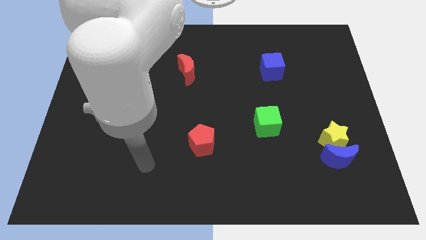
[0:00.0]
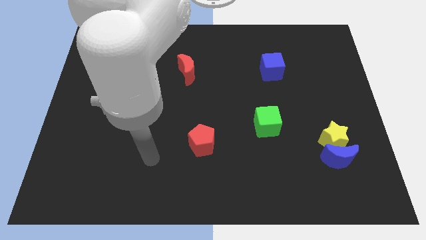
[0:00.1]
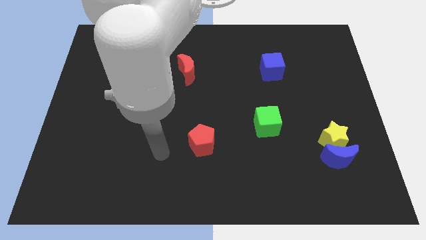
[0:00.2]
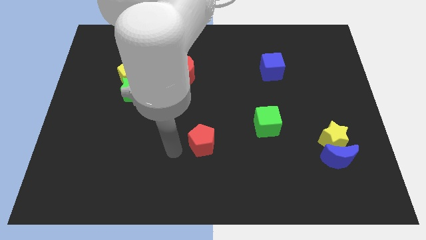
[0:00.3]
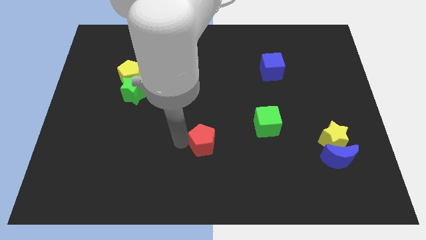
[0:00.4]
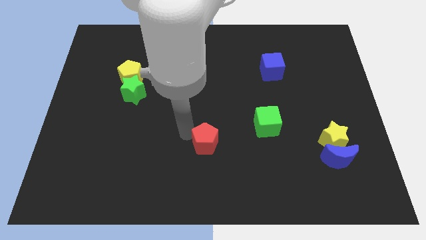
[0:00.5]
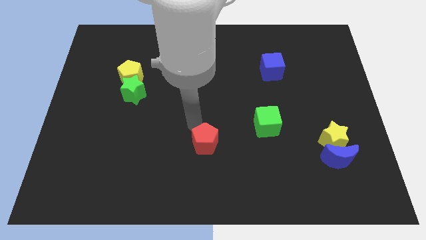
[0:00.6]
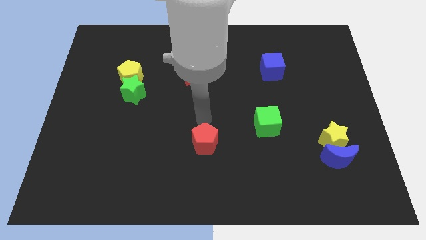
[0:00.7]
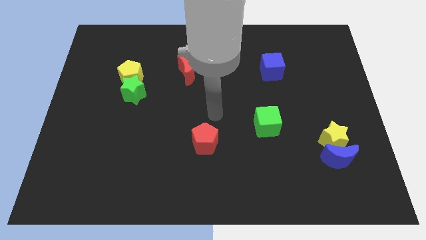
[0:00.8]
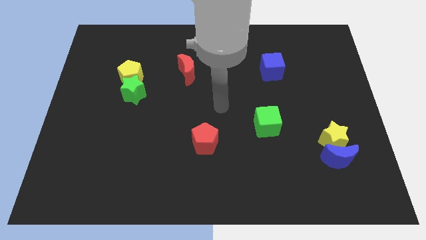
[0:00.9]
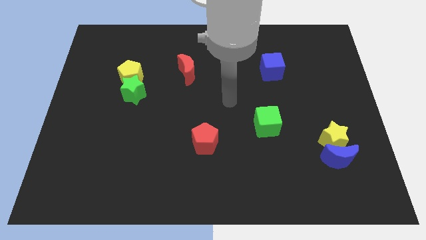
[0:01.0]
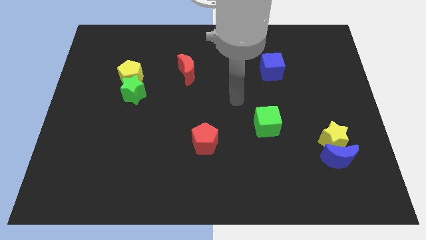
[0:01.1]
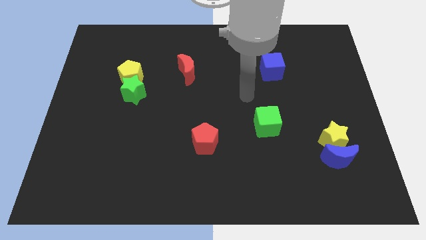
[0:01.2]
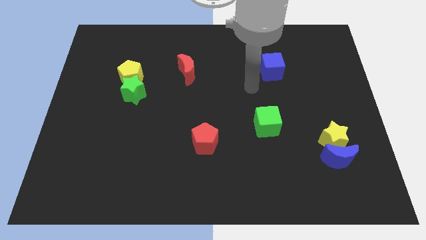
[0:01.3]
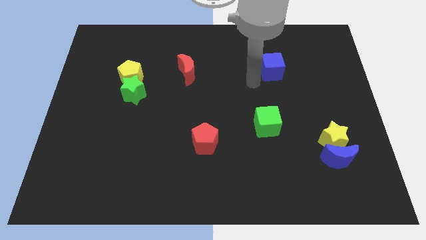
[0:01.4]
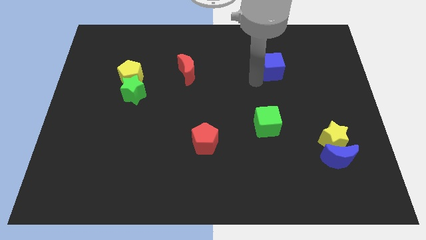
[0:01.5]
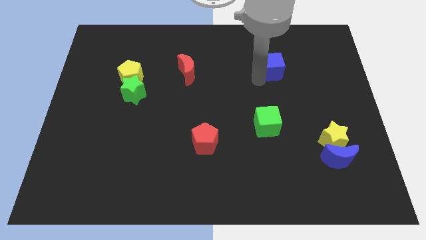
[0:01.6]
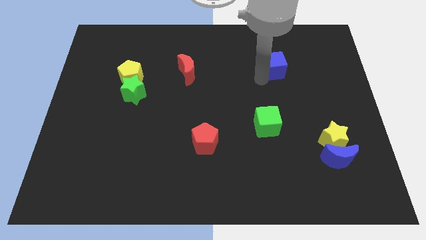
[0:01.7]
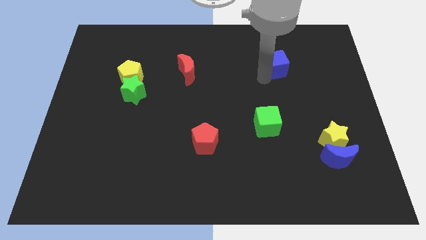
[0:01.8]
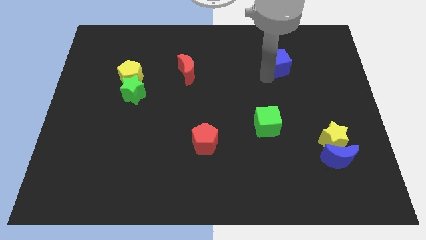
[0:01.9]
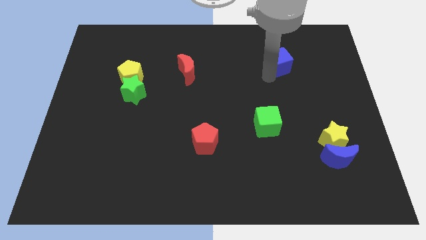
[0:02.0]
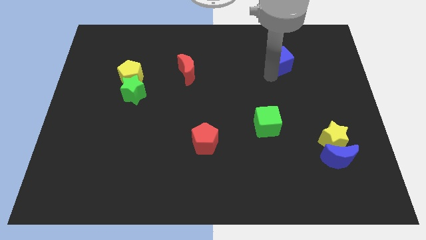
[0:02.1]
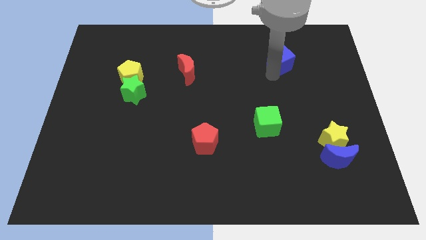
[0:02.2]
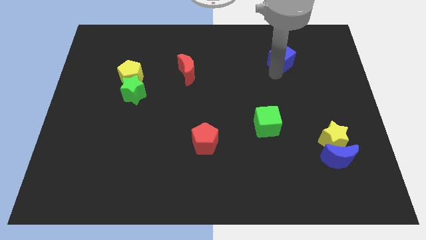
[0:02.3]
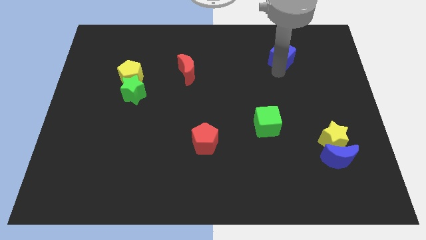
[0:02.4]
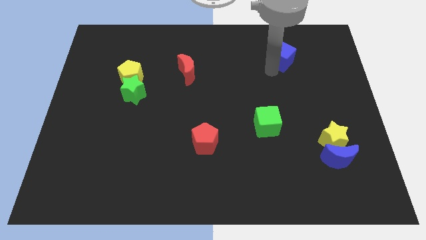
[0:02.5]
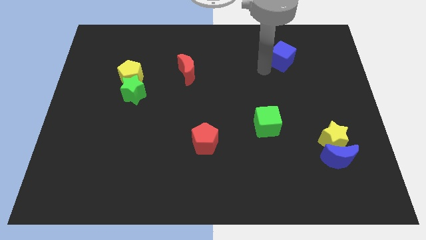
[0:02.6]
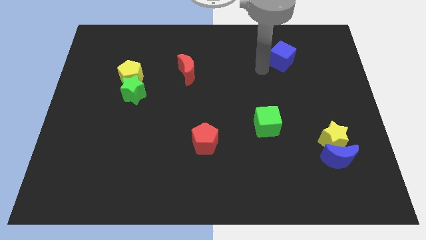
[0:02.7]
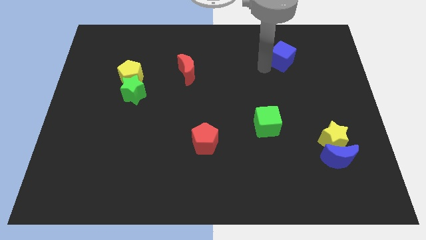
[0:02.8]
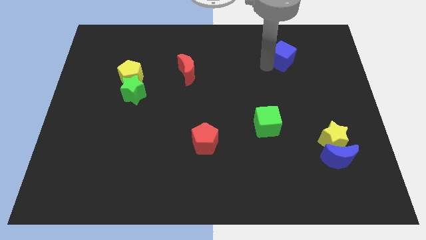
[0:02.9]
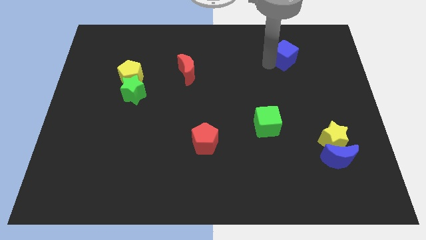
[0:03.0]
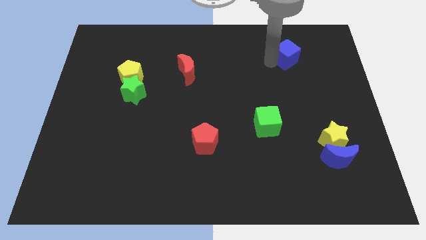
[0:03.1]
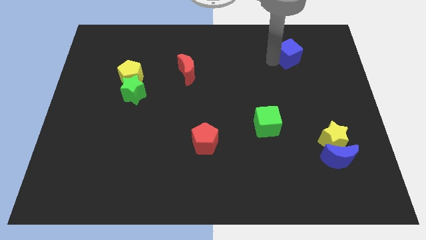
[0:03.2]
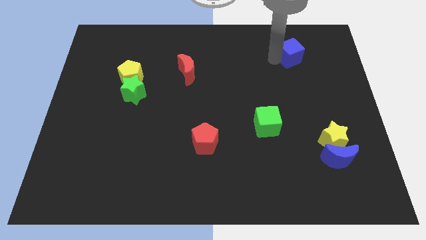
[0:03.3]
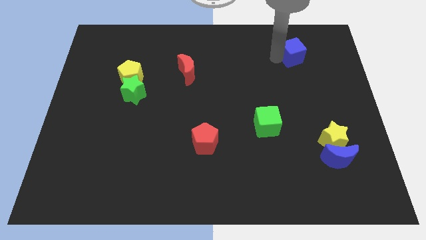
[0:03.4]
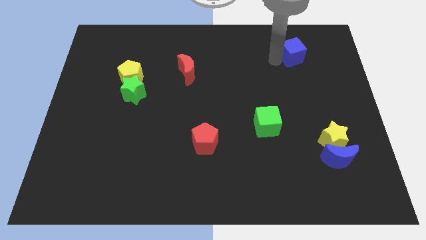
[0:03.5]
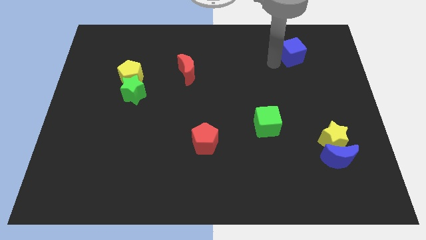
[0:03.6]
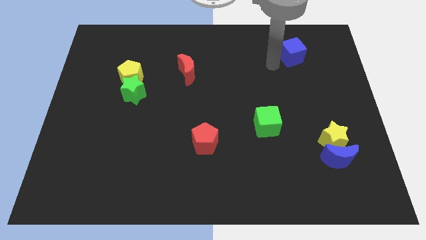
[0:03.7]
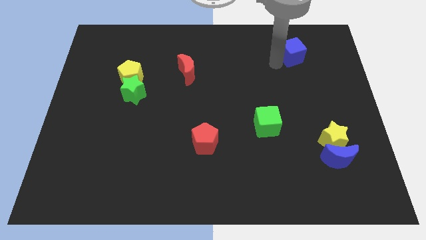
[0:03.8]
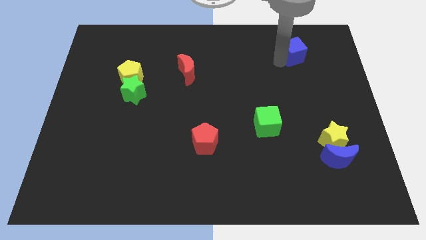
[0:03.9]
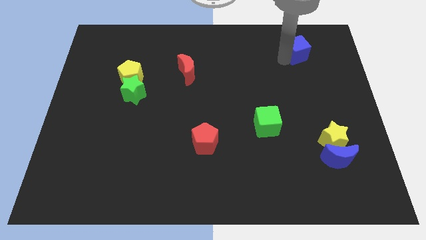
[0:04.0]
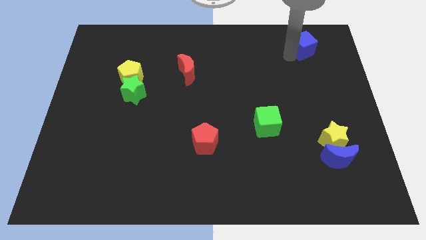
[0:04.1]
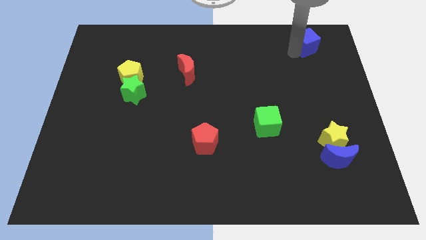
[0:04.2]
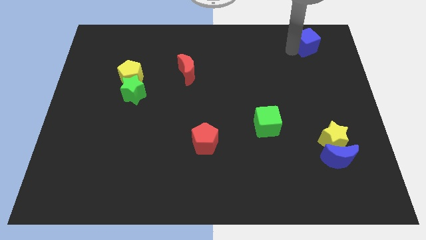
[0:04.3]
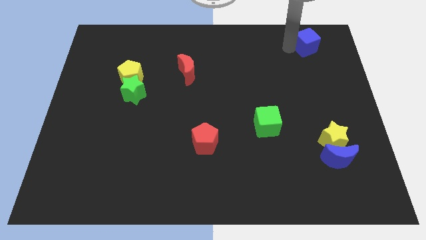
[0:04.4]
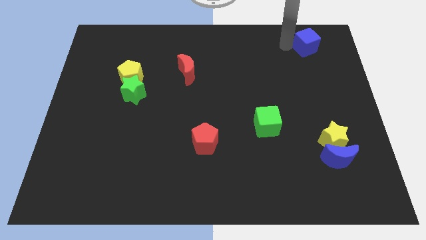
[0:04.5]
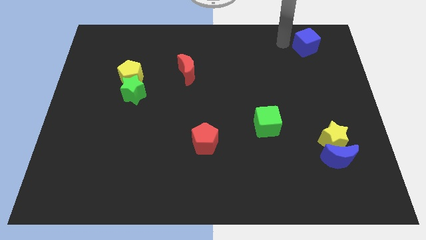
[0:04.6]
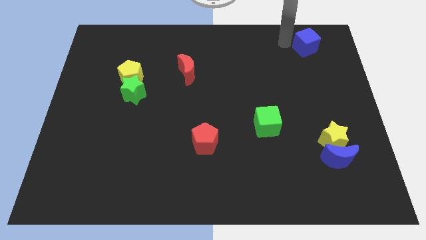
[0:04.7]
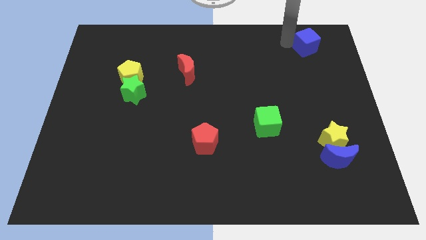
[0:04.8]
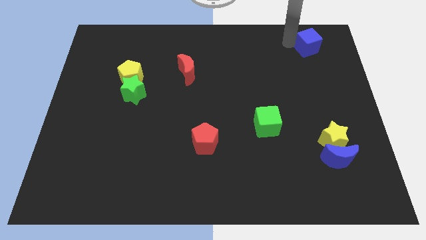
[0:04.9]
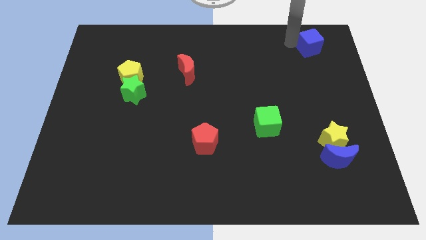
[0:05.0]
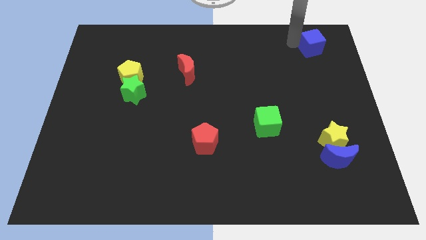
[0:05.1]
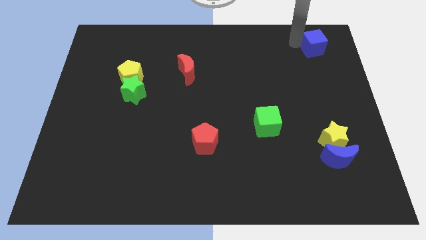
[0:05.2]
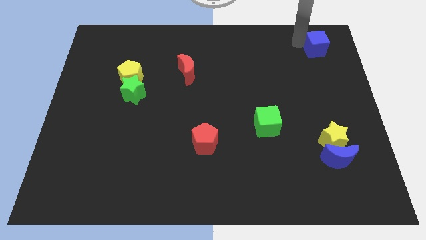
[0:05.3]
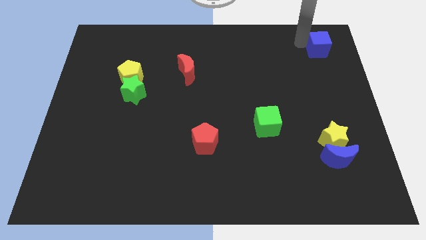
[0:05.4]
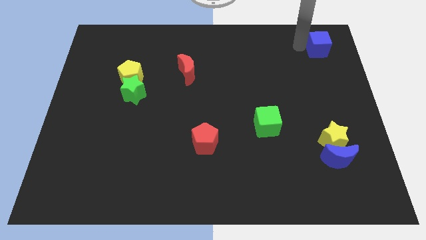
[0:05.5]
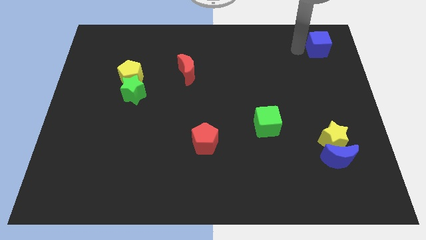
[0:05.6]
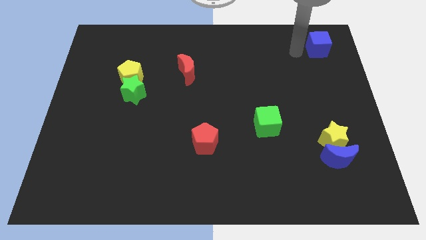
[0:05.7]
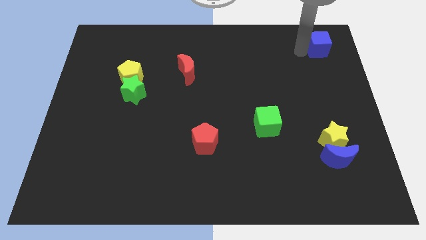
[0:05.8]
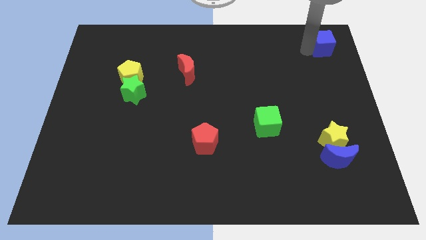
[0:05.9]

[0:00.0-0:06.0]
put the blue cube to the top right of the board

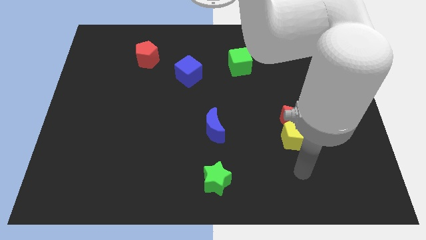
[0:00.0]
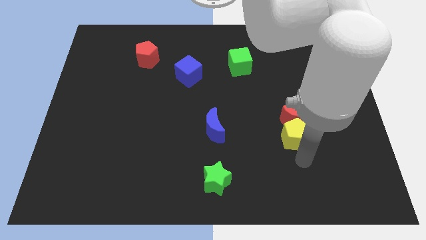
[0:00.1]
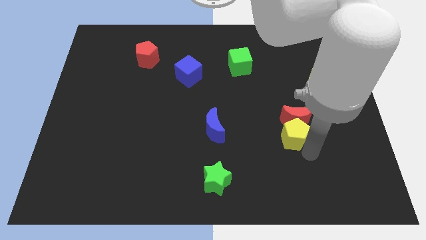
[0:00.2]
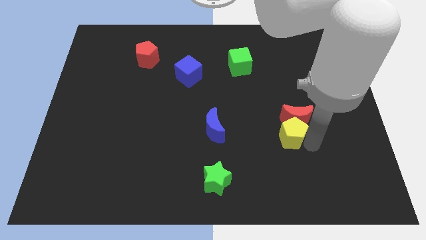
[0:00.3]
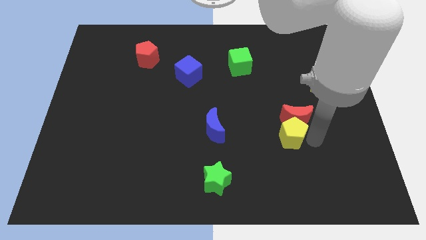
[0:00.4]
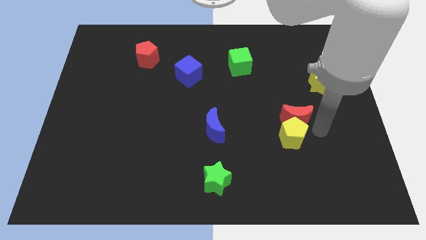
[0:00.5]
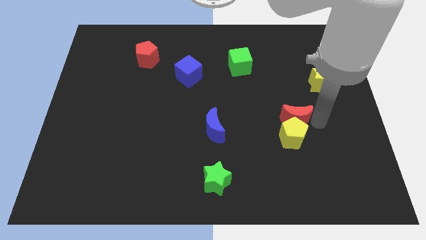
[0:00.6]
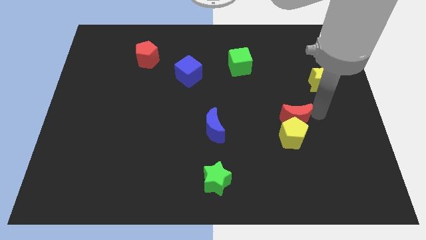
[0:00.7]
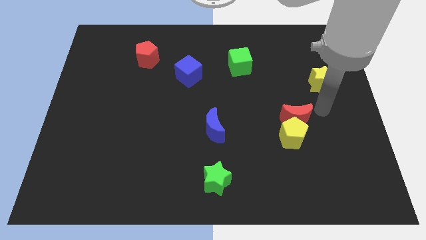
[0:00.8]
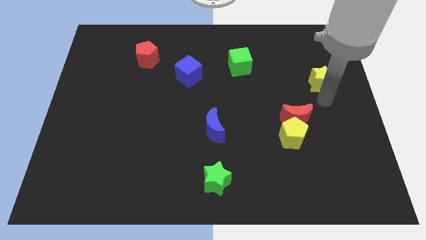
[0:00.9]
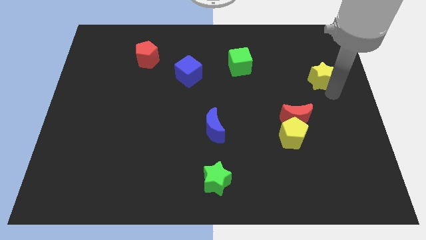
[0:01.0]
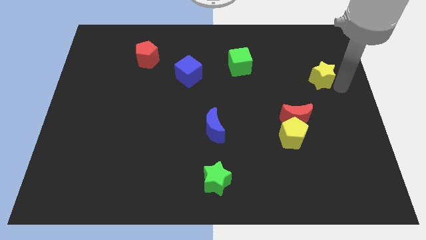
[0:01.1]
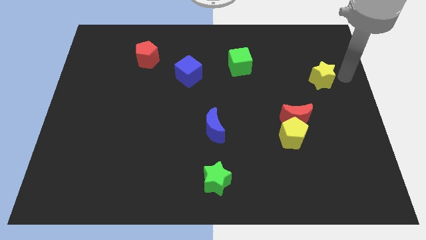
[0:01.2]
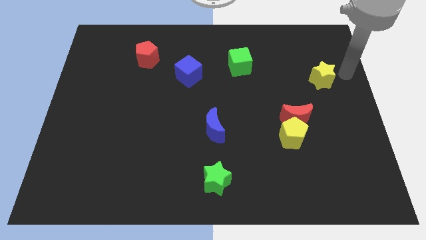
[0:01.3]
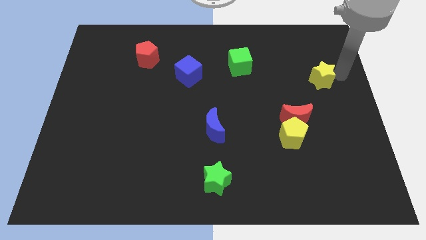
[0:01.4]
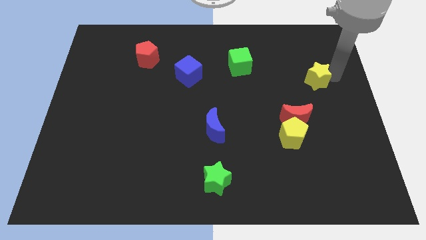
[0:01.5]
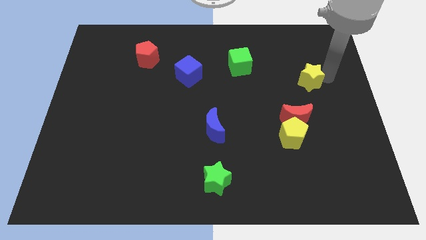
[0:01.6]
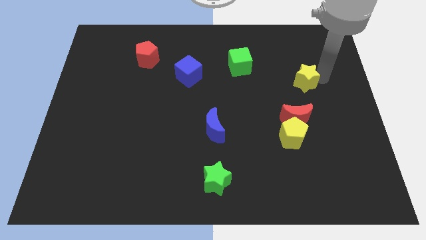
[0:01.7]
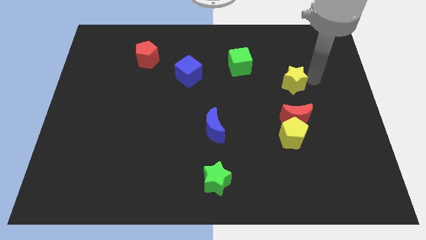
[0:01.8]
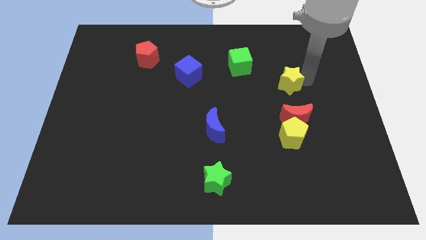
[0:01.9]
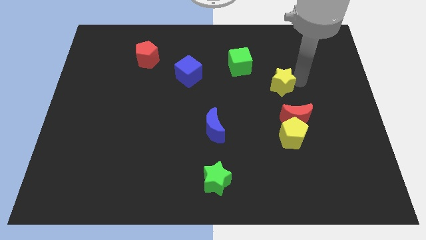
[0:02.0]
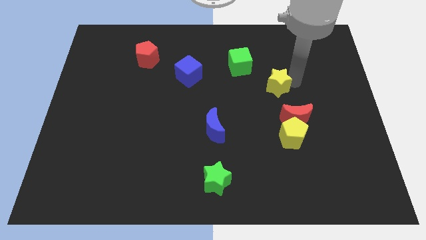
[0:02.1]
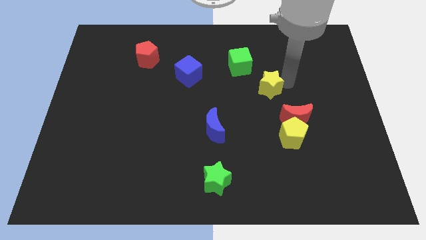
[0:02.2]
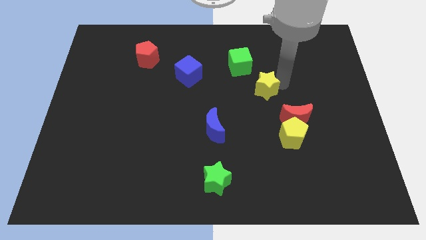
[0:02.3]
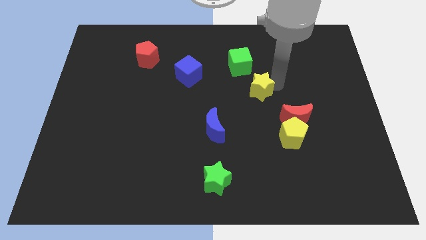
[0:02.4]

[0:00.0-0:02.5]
move the yellow star to the center
